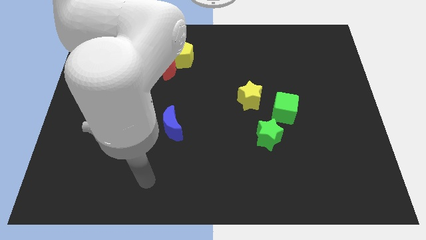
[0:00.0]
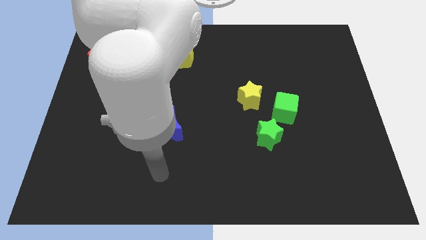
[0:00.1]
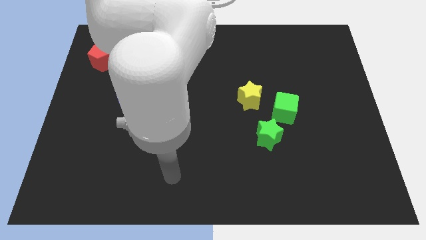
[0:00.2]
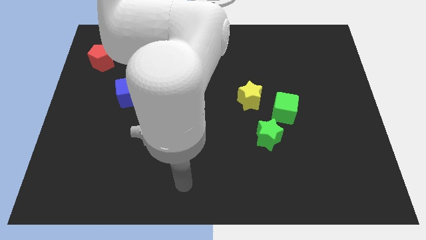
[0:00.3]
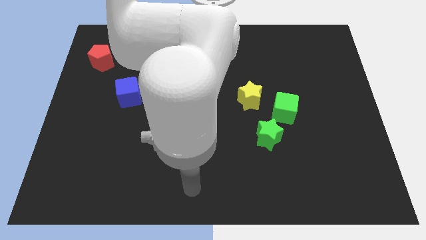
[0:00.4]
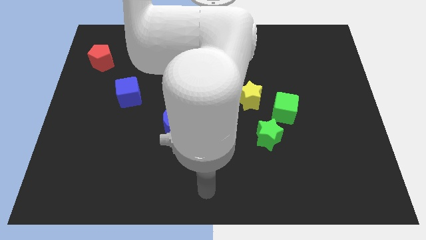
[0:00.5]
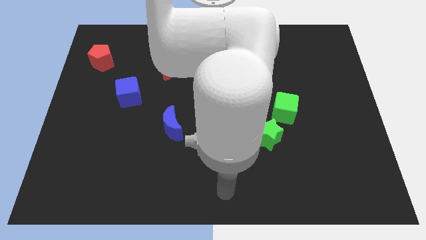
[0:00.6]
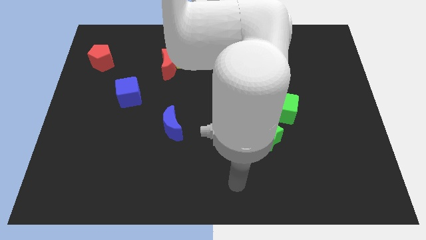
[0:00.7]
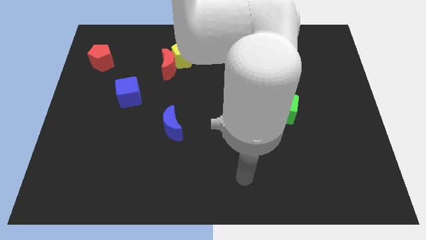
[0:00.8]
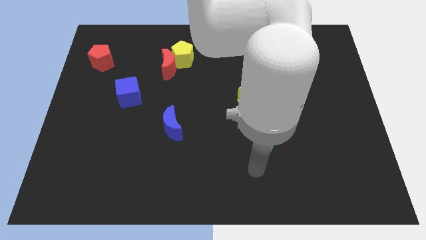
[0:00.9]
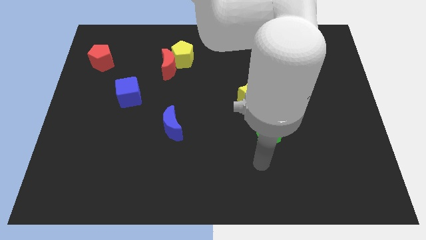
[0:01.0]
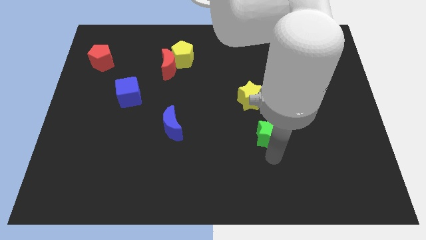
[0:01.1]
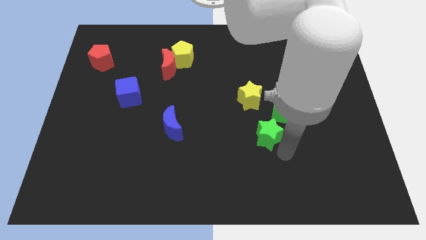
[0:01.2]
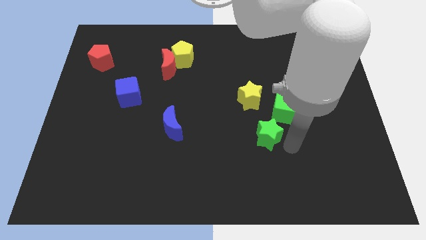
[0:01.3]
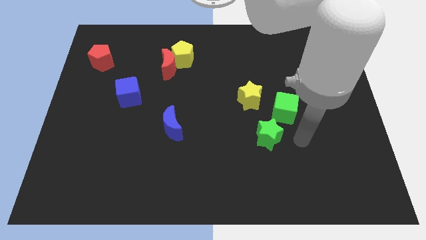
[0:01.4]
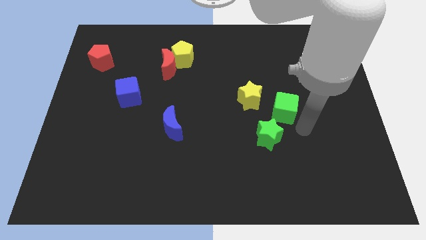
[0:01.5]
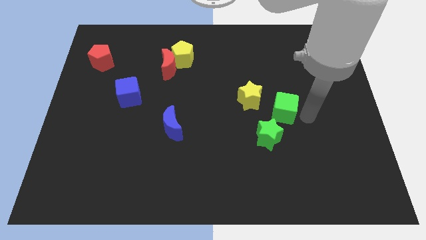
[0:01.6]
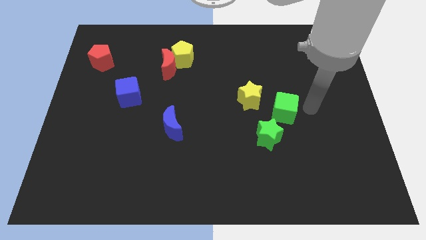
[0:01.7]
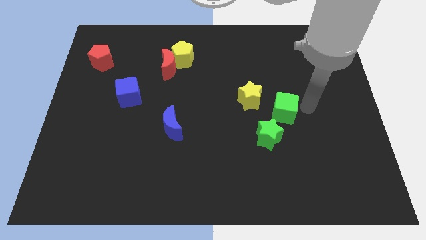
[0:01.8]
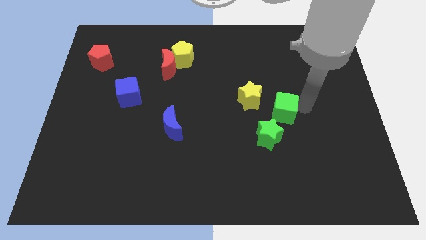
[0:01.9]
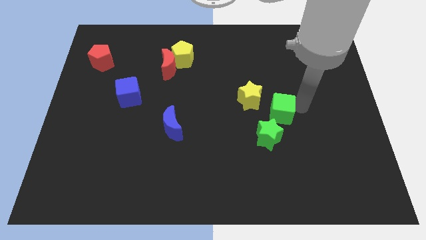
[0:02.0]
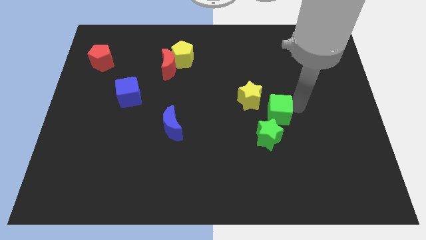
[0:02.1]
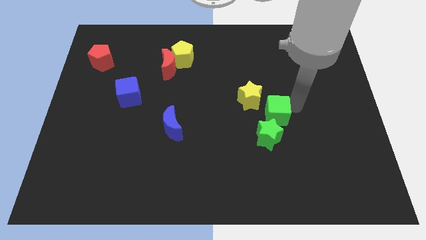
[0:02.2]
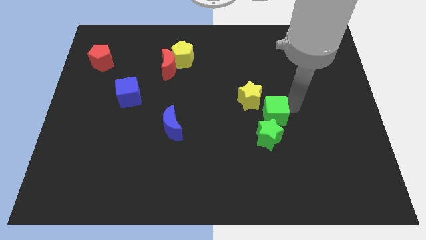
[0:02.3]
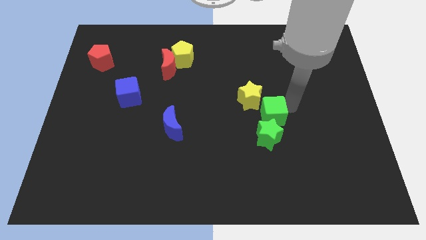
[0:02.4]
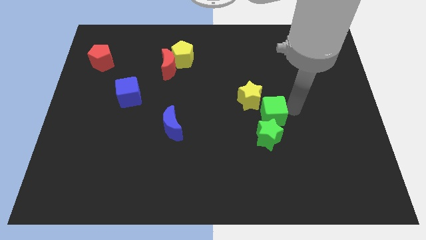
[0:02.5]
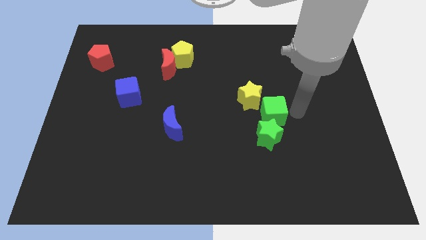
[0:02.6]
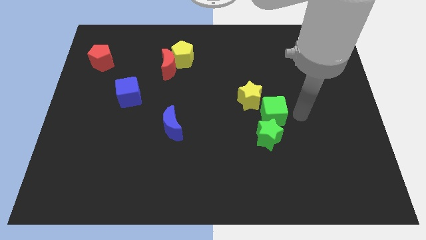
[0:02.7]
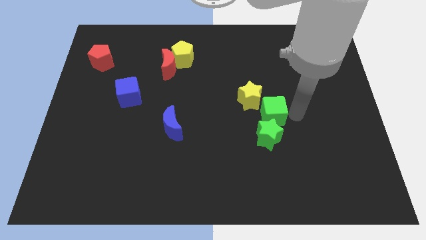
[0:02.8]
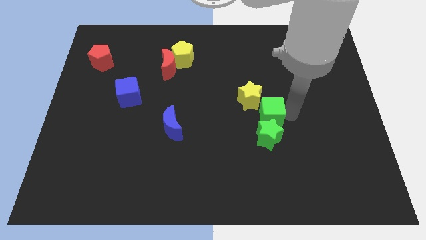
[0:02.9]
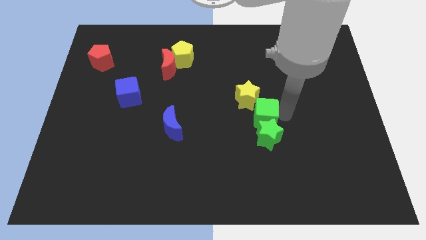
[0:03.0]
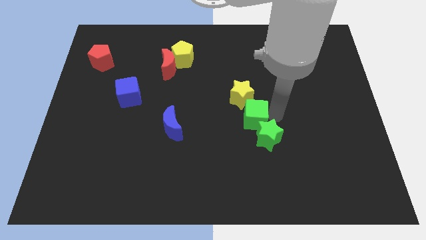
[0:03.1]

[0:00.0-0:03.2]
slightly move the green cube to the left

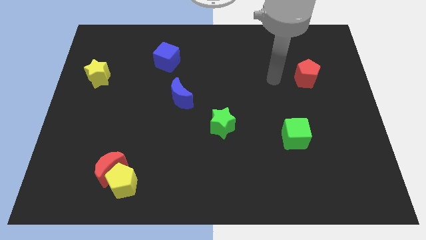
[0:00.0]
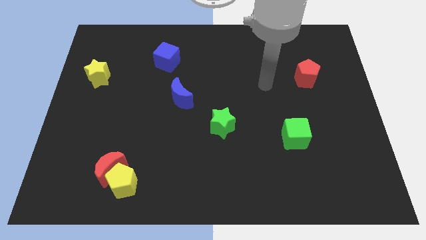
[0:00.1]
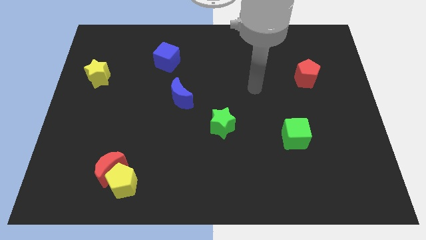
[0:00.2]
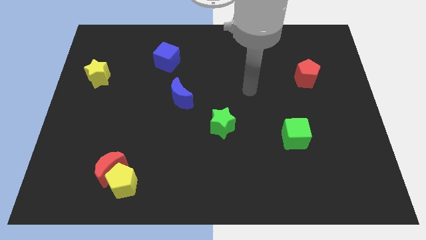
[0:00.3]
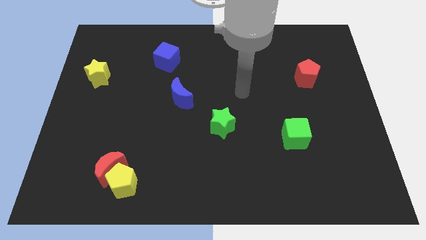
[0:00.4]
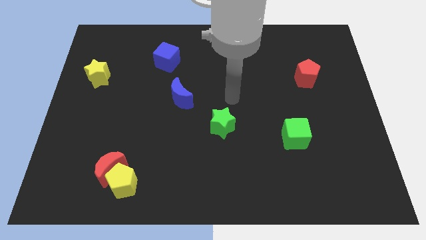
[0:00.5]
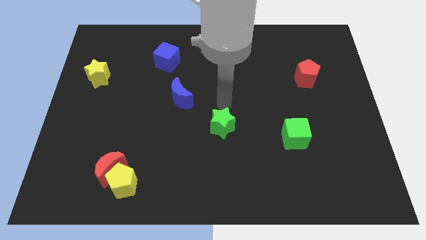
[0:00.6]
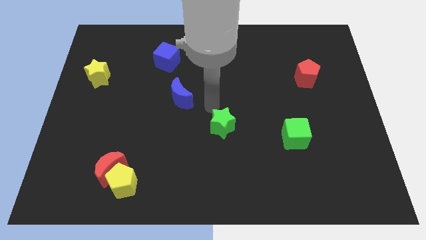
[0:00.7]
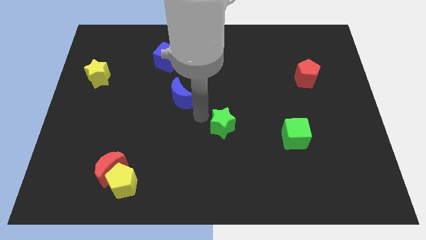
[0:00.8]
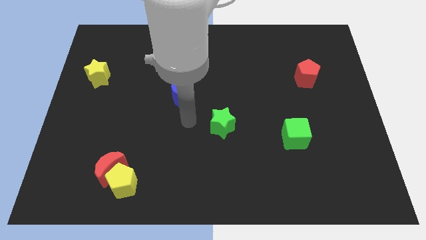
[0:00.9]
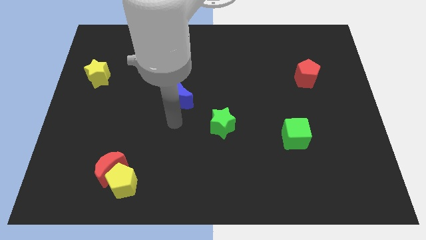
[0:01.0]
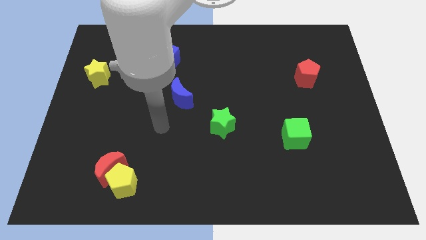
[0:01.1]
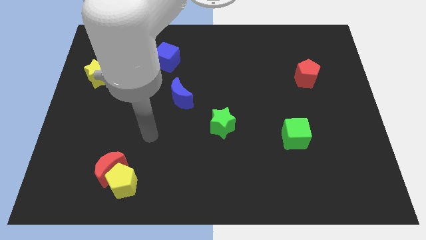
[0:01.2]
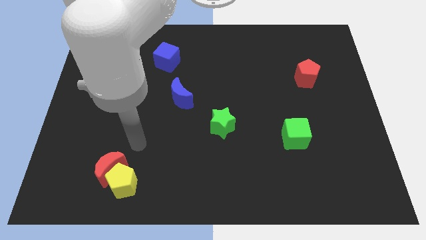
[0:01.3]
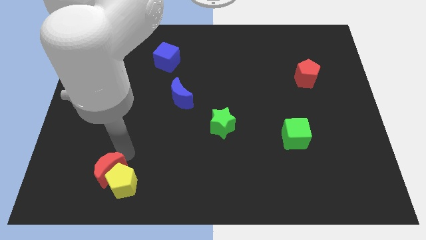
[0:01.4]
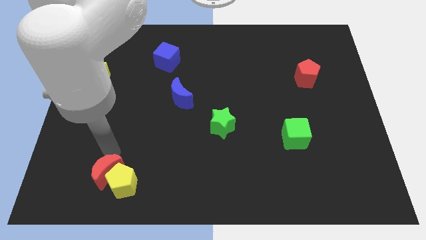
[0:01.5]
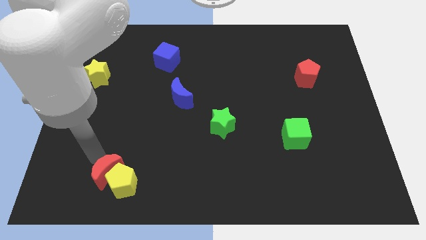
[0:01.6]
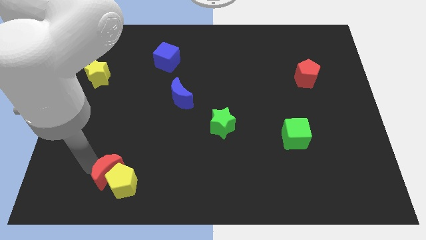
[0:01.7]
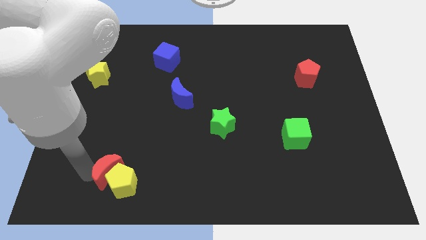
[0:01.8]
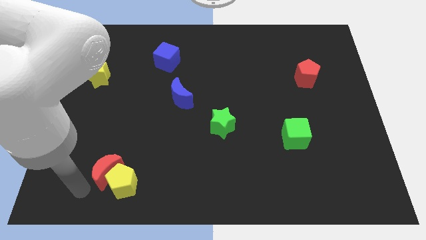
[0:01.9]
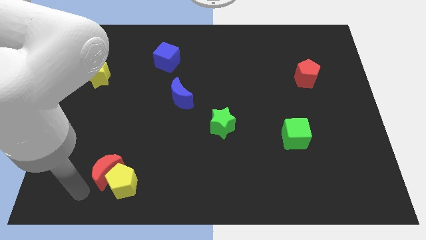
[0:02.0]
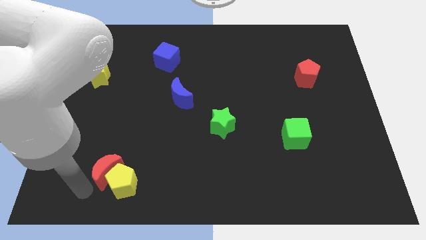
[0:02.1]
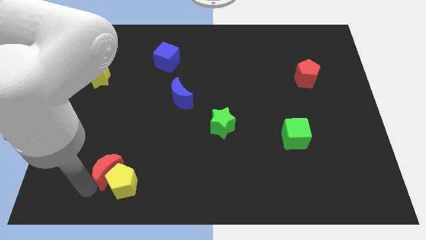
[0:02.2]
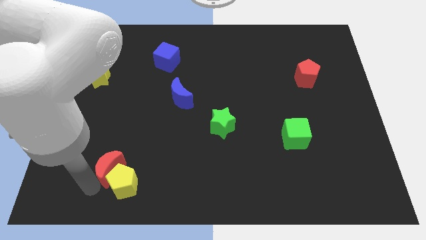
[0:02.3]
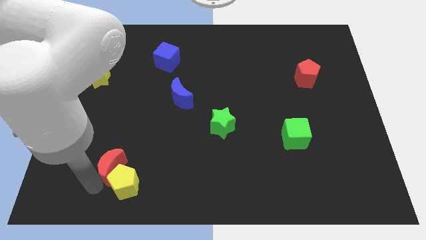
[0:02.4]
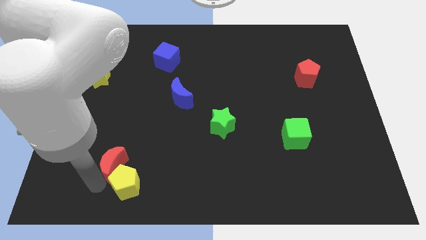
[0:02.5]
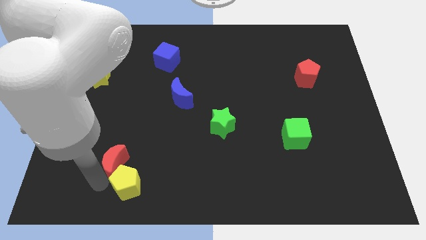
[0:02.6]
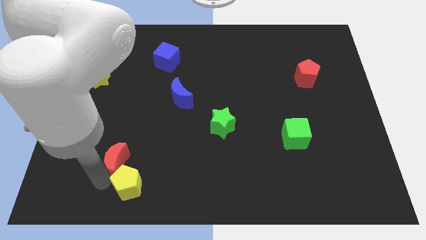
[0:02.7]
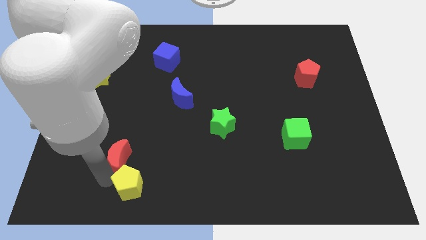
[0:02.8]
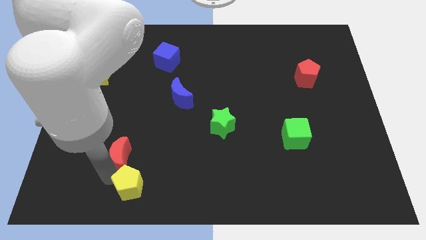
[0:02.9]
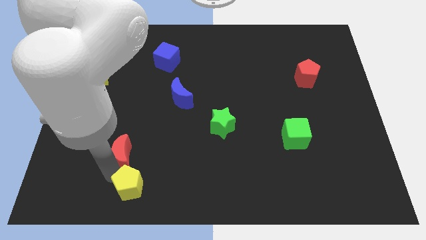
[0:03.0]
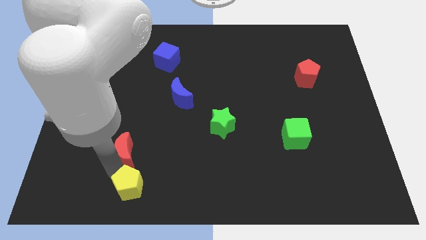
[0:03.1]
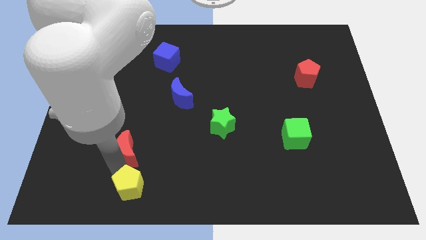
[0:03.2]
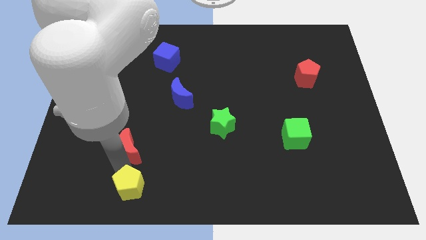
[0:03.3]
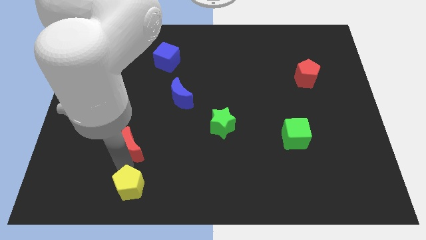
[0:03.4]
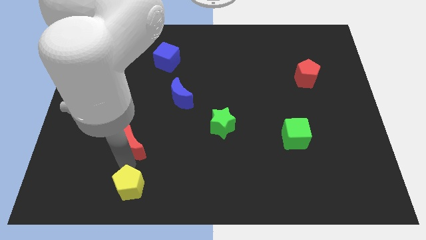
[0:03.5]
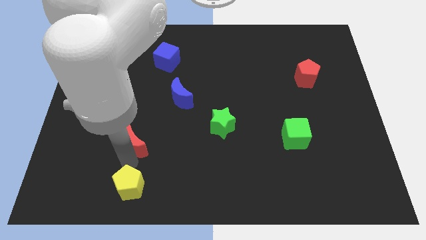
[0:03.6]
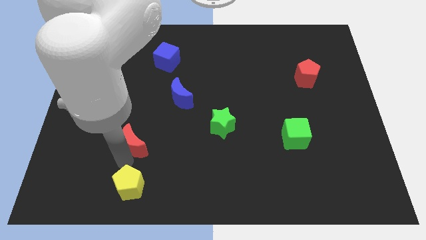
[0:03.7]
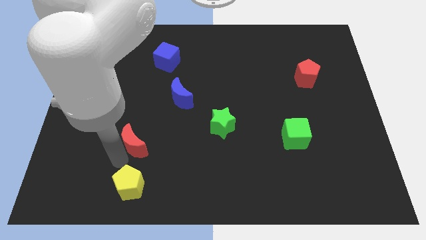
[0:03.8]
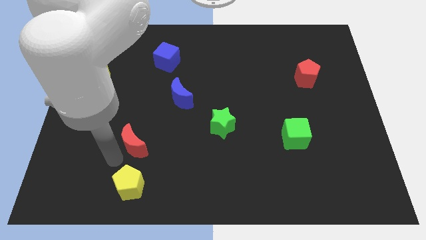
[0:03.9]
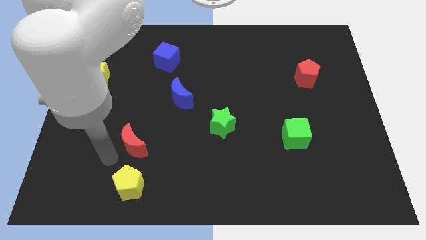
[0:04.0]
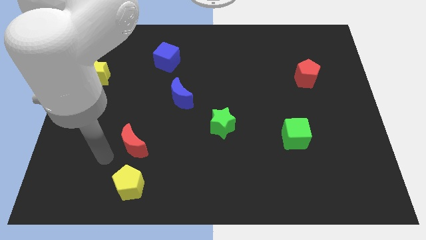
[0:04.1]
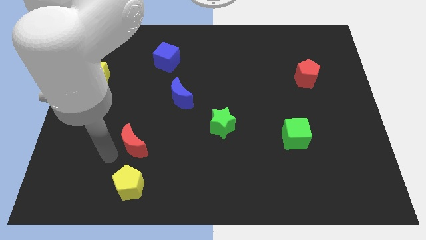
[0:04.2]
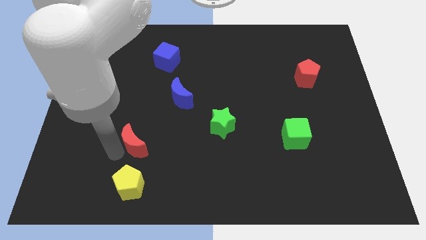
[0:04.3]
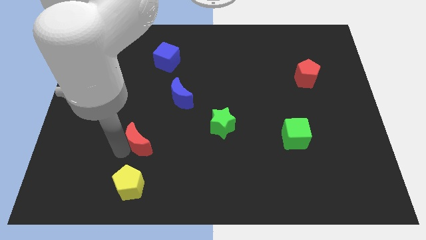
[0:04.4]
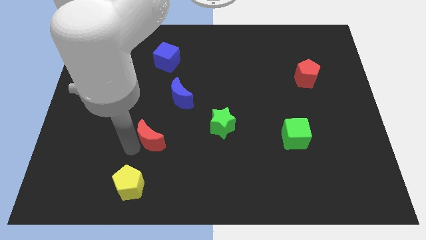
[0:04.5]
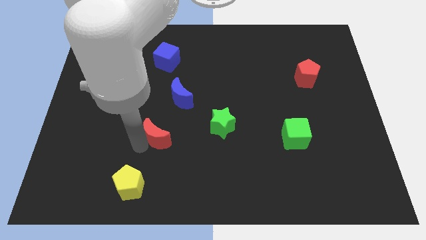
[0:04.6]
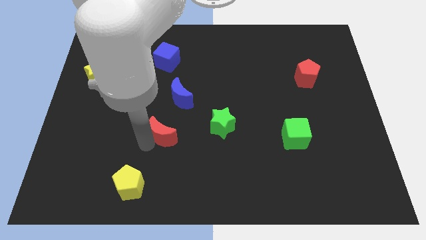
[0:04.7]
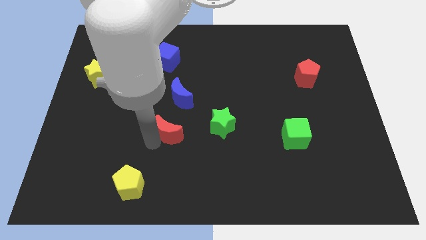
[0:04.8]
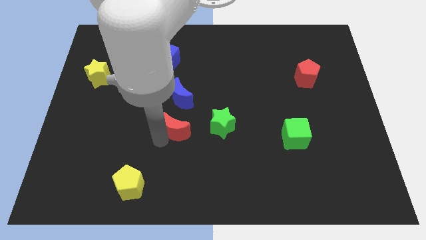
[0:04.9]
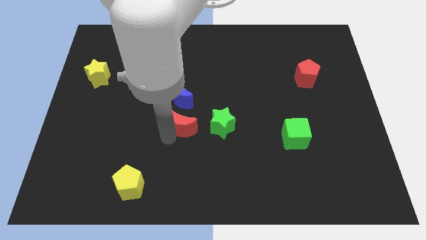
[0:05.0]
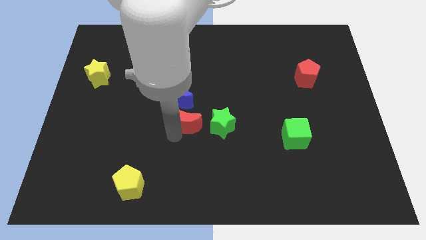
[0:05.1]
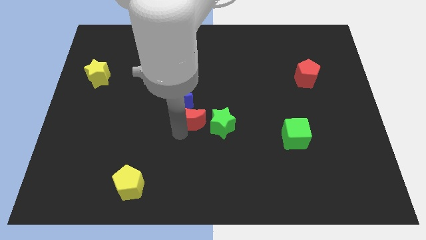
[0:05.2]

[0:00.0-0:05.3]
slide the red moon up and to the right diagonally
